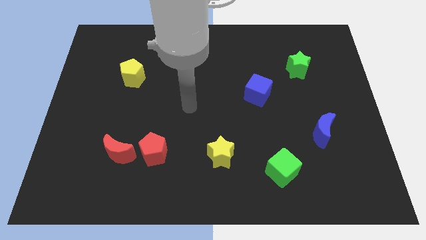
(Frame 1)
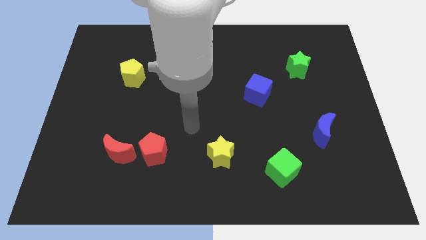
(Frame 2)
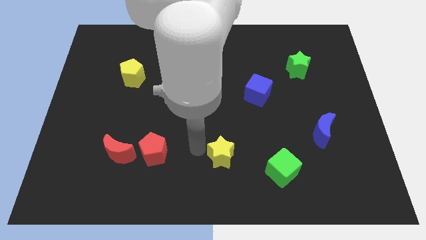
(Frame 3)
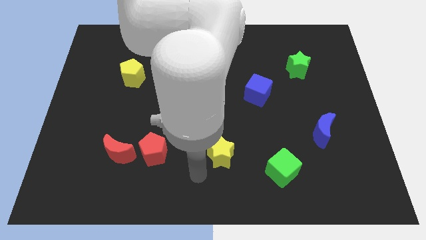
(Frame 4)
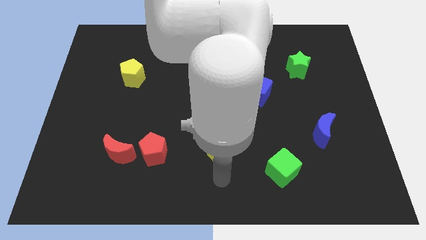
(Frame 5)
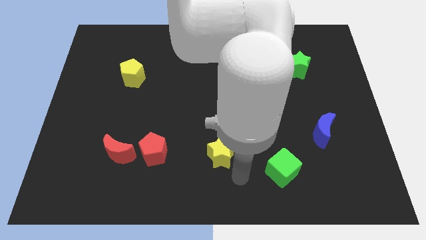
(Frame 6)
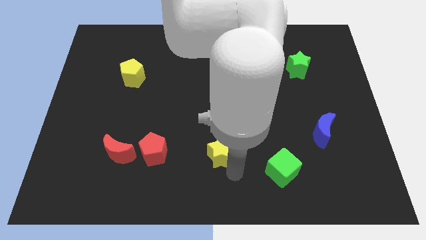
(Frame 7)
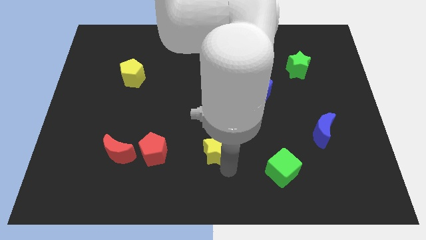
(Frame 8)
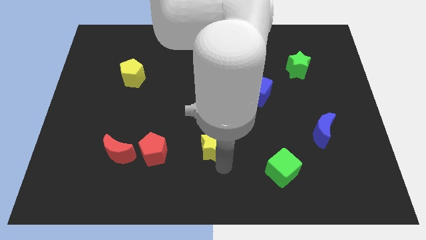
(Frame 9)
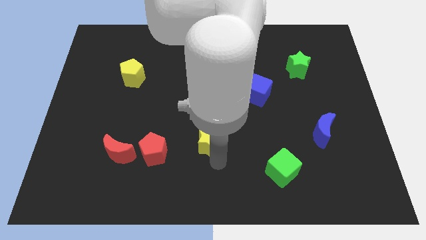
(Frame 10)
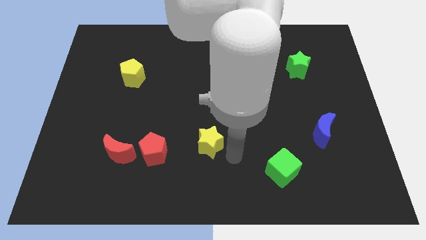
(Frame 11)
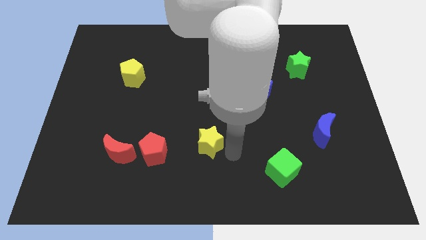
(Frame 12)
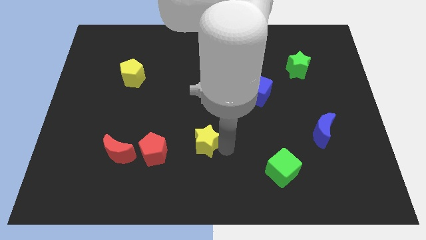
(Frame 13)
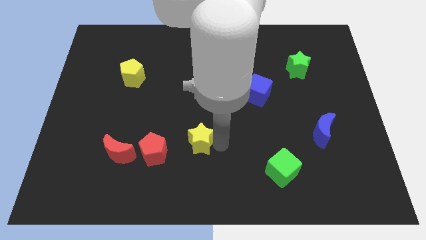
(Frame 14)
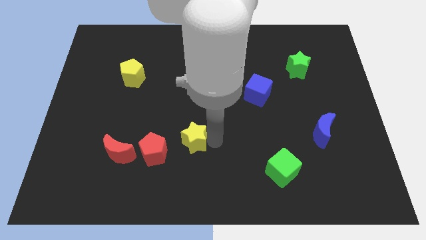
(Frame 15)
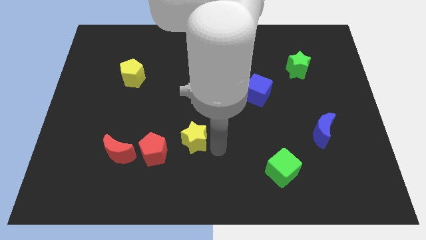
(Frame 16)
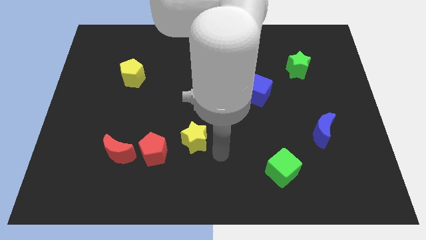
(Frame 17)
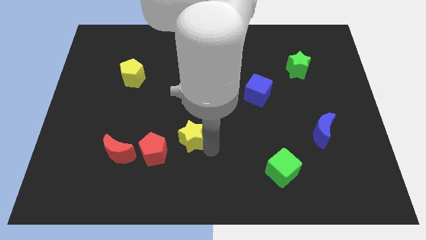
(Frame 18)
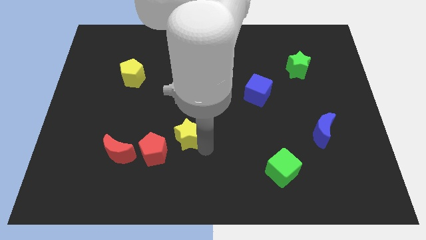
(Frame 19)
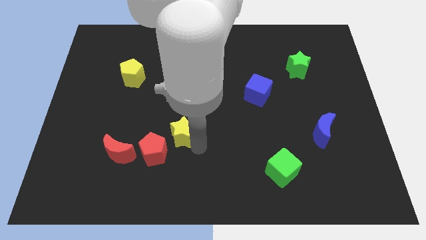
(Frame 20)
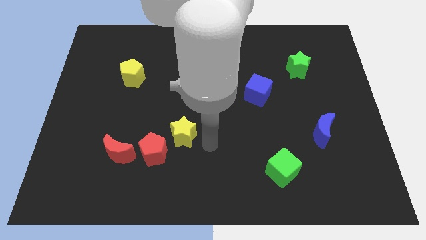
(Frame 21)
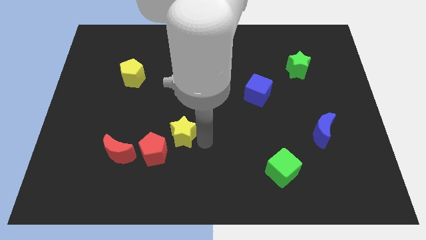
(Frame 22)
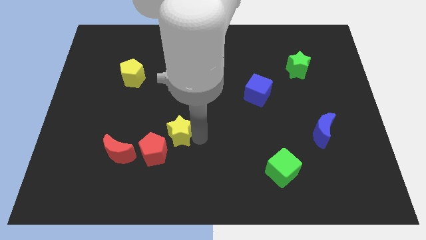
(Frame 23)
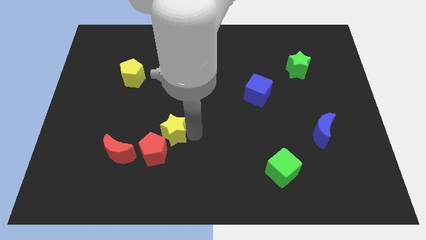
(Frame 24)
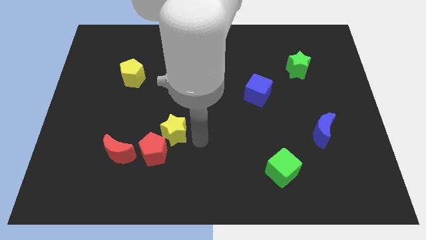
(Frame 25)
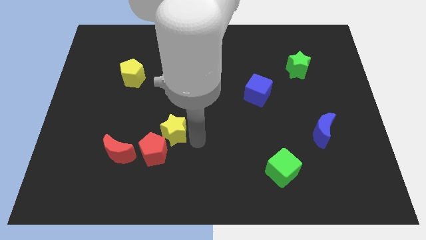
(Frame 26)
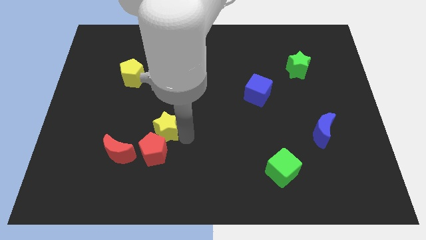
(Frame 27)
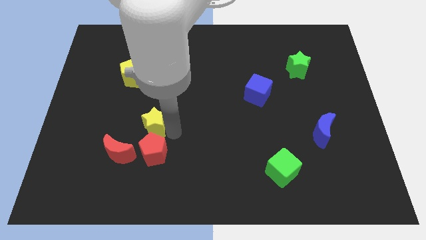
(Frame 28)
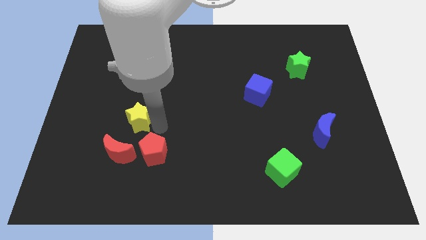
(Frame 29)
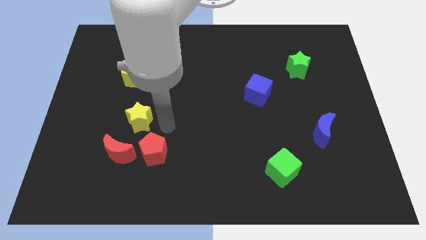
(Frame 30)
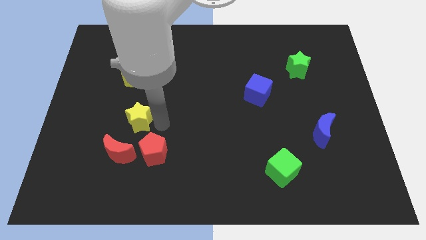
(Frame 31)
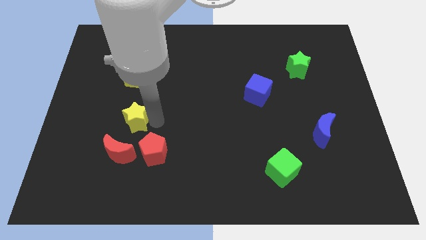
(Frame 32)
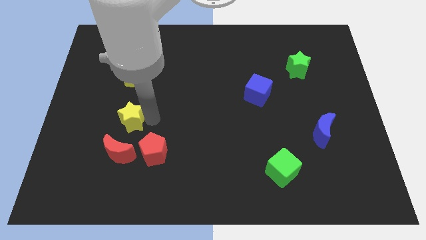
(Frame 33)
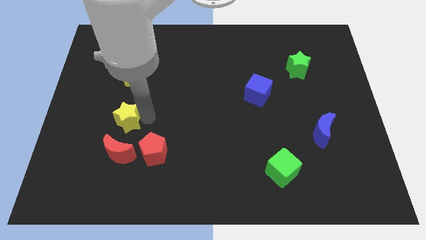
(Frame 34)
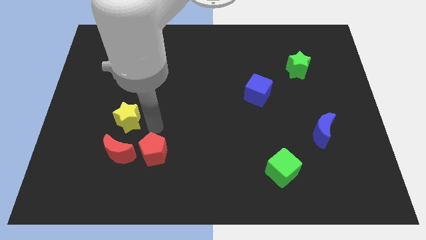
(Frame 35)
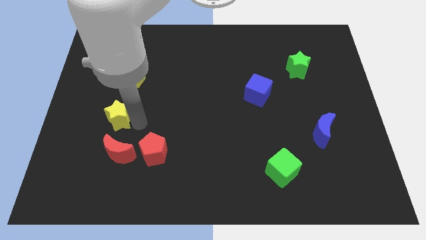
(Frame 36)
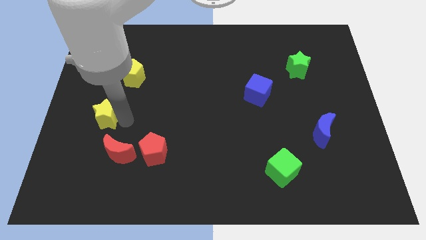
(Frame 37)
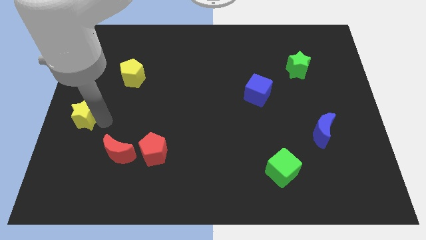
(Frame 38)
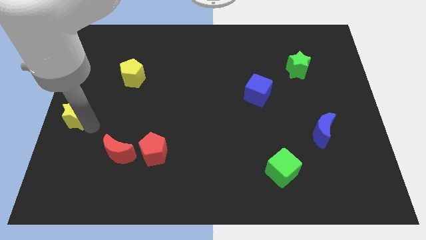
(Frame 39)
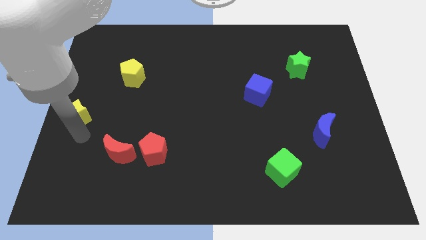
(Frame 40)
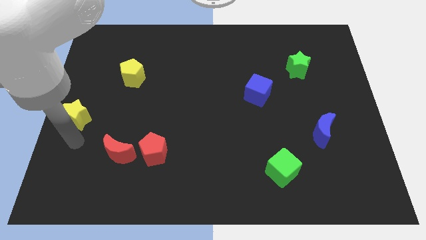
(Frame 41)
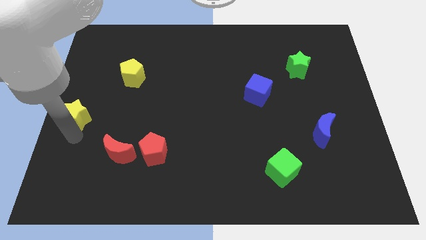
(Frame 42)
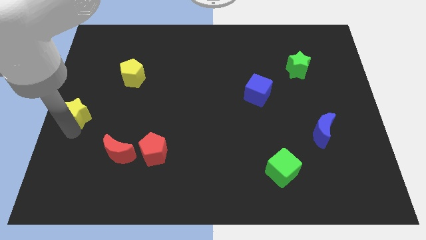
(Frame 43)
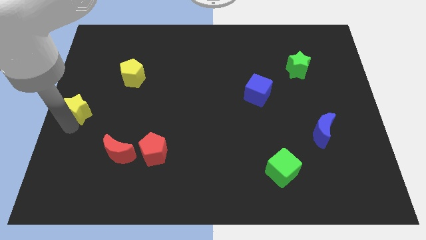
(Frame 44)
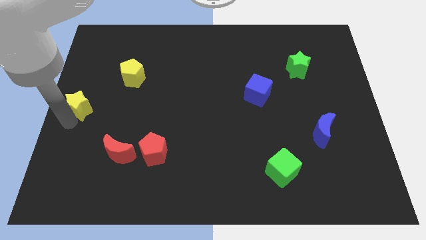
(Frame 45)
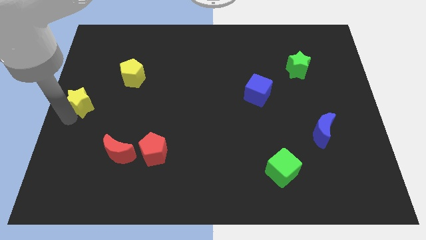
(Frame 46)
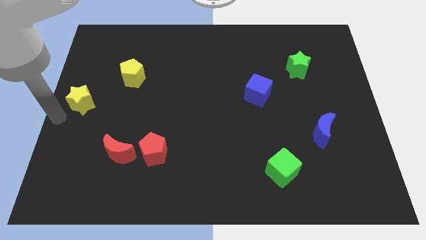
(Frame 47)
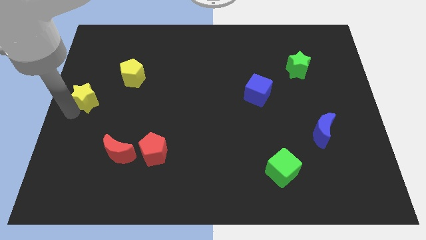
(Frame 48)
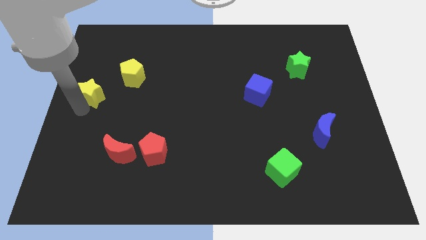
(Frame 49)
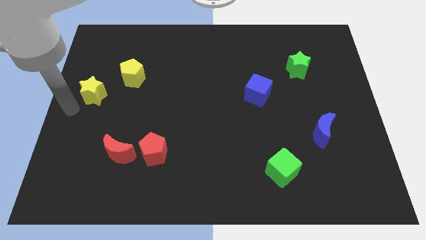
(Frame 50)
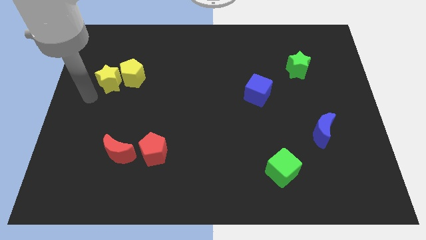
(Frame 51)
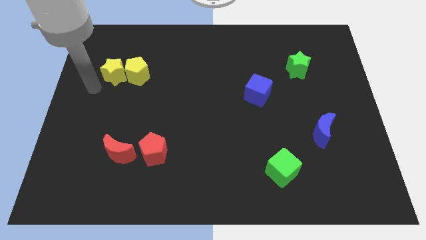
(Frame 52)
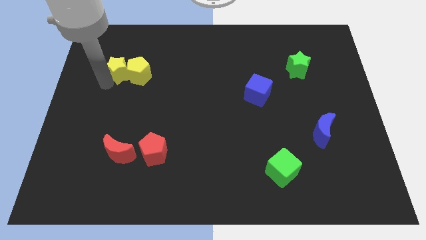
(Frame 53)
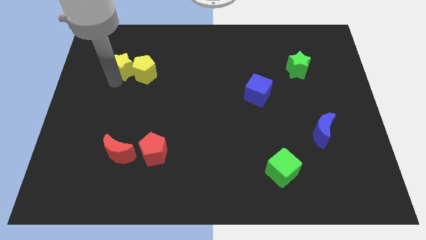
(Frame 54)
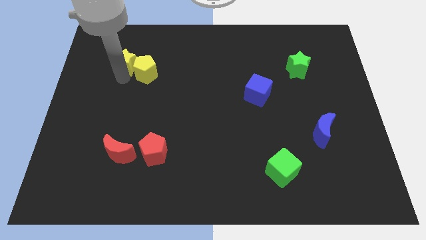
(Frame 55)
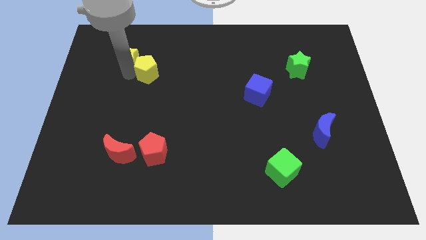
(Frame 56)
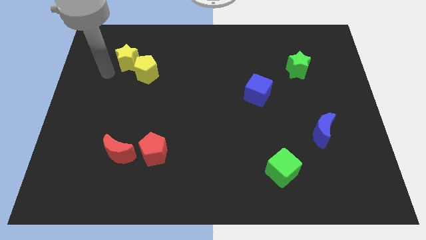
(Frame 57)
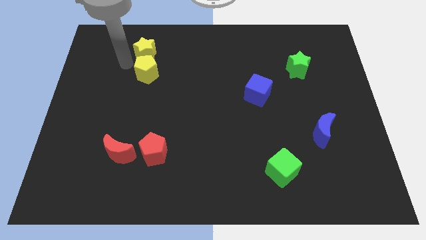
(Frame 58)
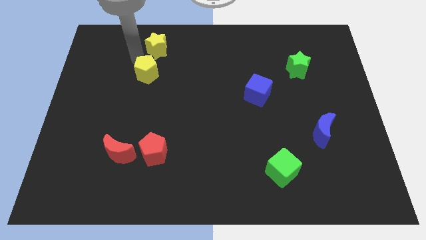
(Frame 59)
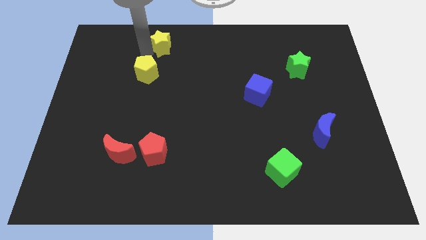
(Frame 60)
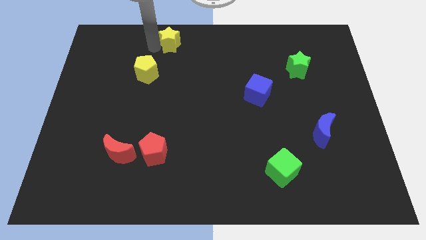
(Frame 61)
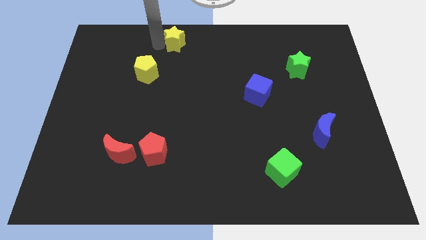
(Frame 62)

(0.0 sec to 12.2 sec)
push the yellow star to the top
